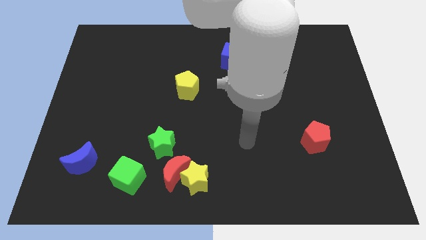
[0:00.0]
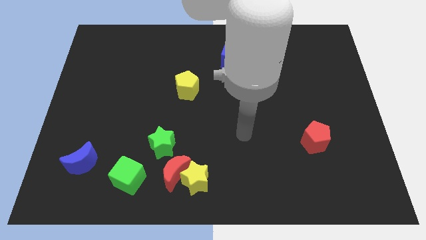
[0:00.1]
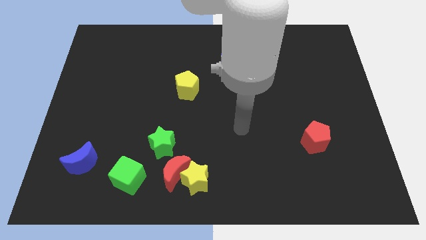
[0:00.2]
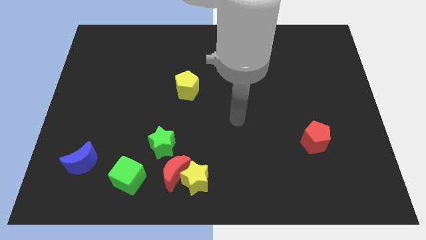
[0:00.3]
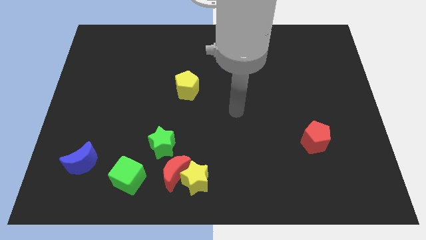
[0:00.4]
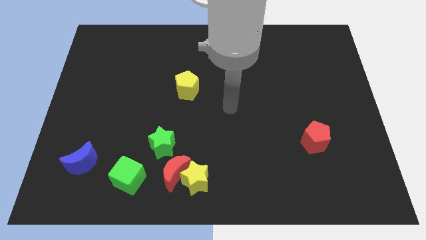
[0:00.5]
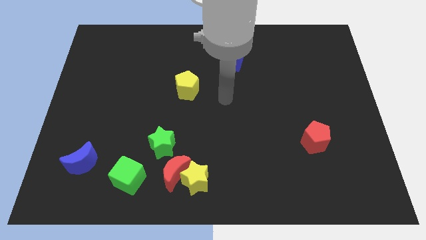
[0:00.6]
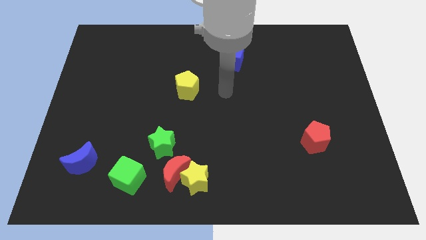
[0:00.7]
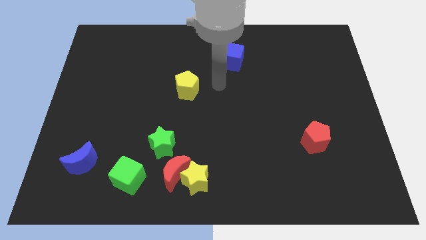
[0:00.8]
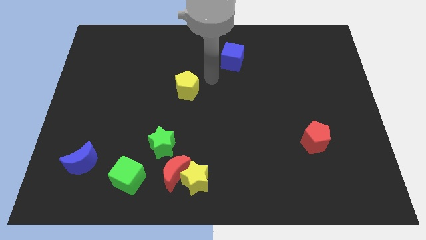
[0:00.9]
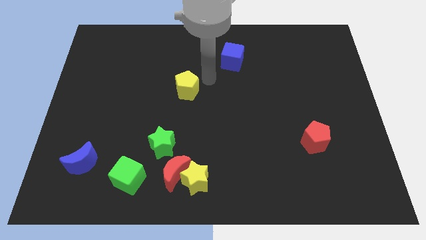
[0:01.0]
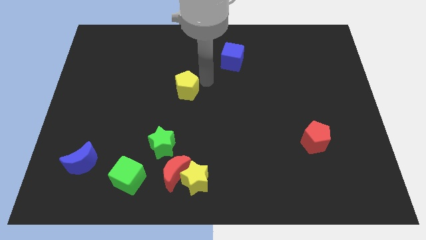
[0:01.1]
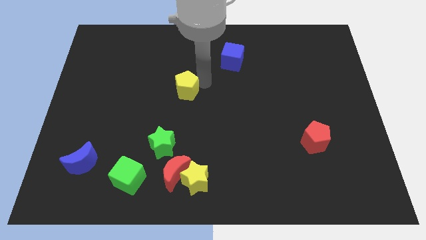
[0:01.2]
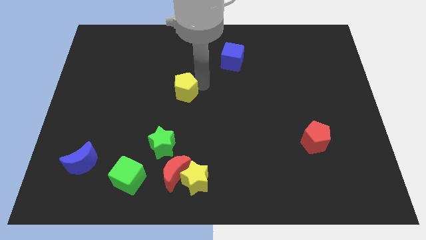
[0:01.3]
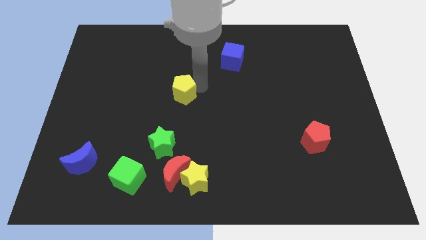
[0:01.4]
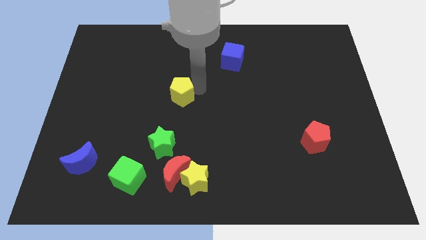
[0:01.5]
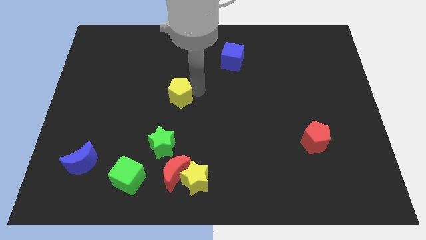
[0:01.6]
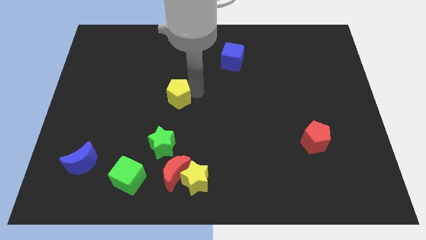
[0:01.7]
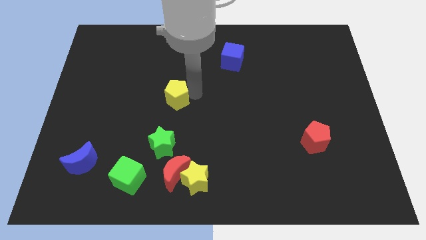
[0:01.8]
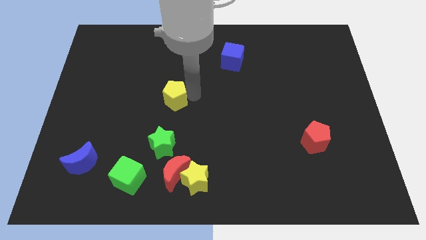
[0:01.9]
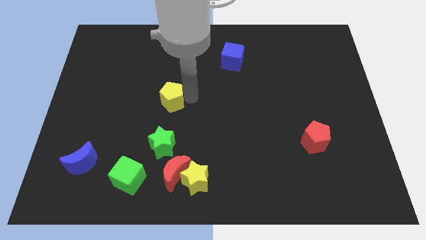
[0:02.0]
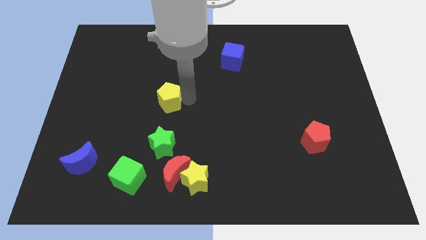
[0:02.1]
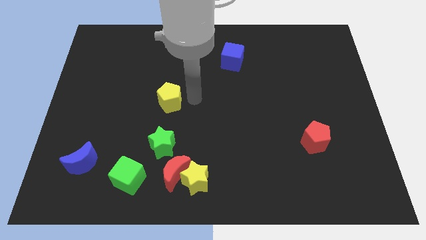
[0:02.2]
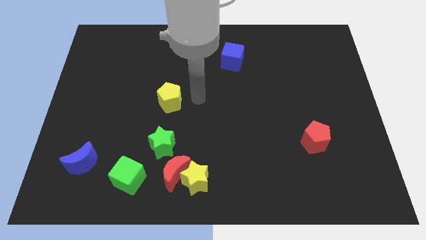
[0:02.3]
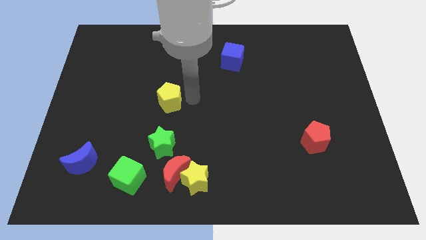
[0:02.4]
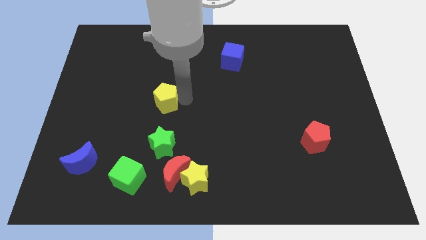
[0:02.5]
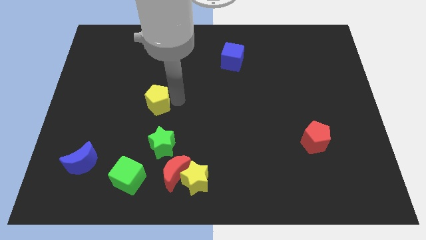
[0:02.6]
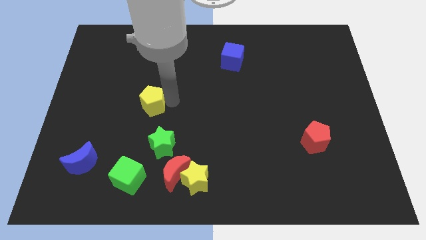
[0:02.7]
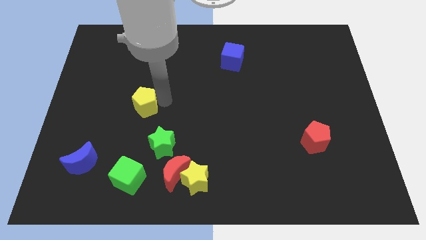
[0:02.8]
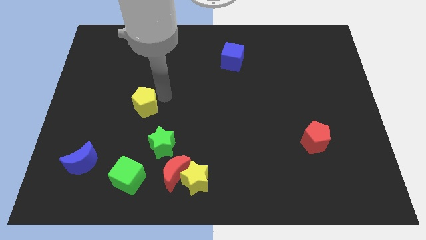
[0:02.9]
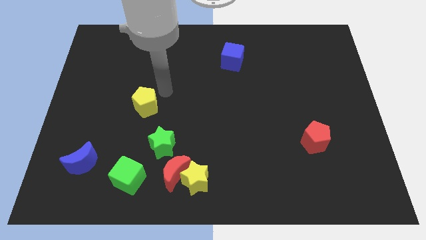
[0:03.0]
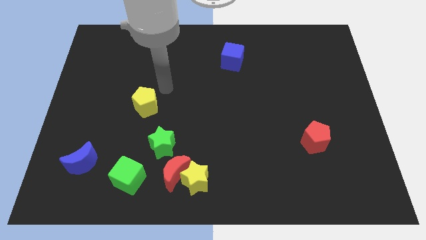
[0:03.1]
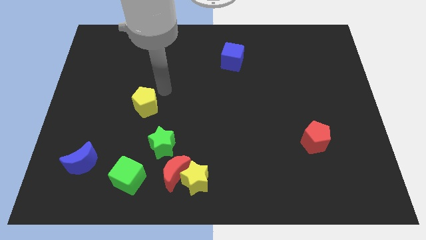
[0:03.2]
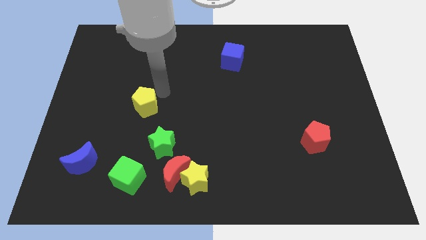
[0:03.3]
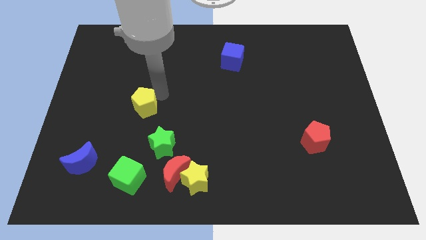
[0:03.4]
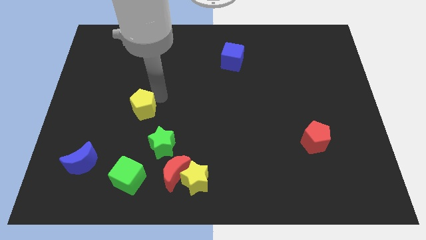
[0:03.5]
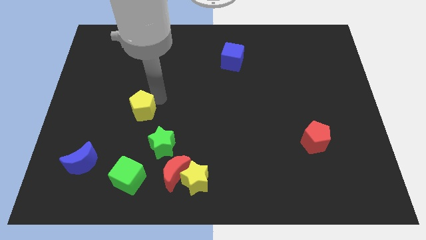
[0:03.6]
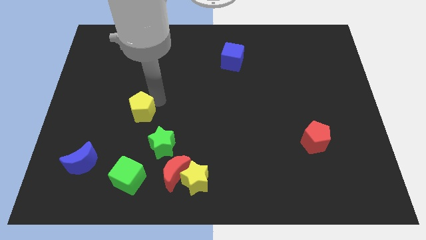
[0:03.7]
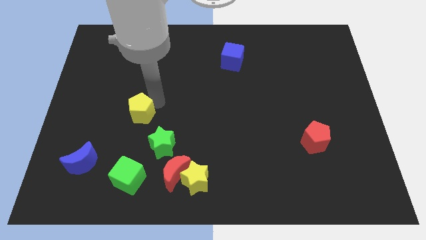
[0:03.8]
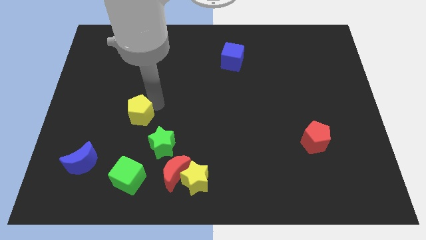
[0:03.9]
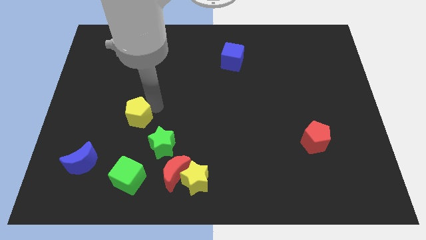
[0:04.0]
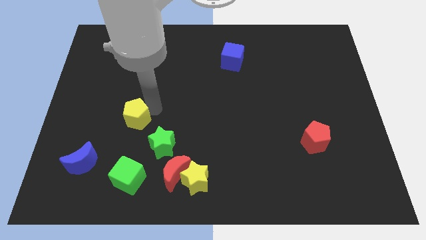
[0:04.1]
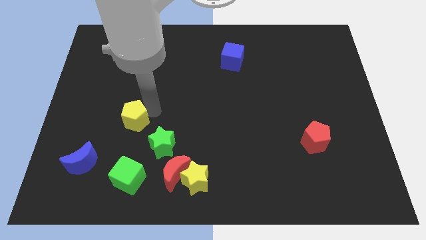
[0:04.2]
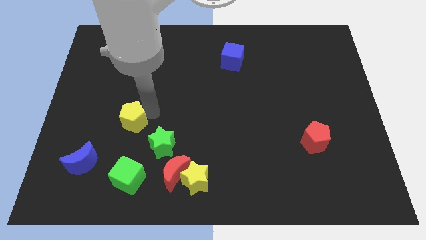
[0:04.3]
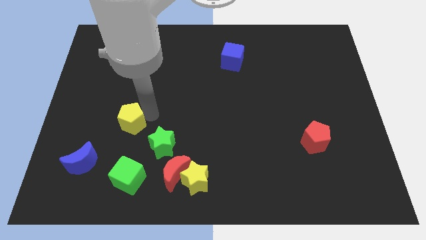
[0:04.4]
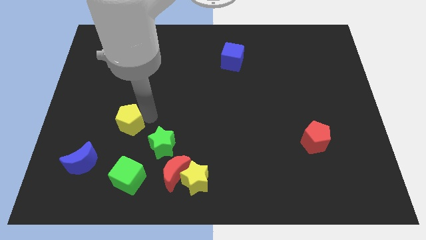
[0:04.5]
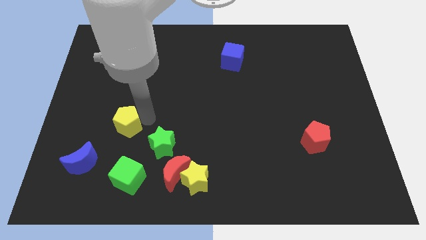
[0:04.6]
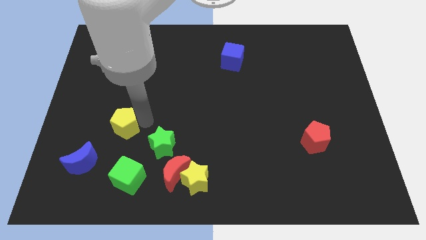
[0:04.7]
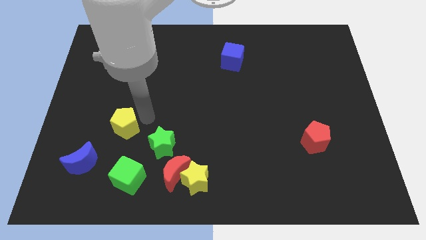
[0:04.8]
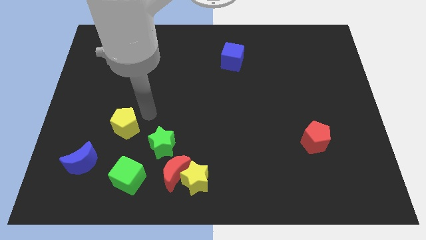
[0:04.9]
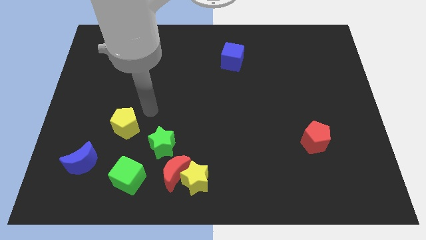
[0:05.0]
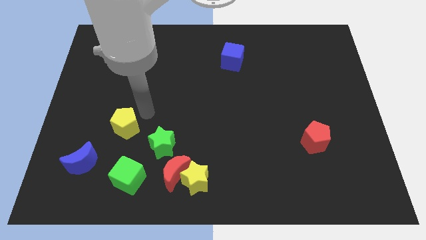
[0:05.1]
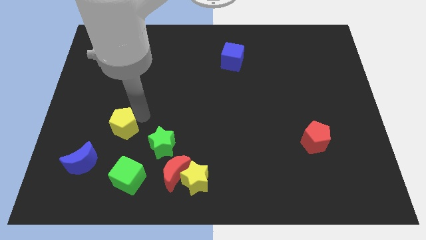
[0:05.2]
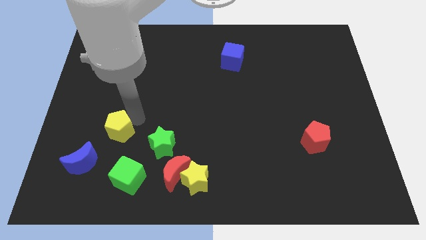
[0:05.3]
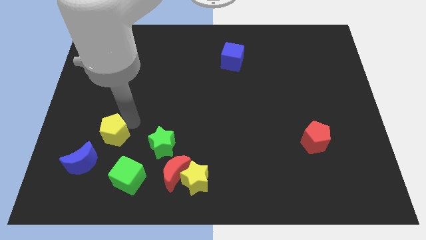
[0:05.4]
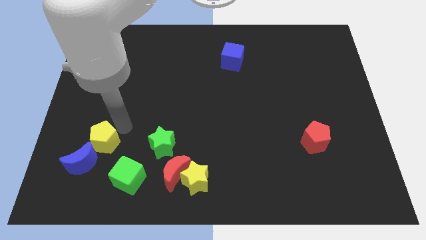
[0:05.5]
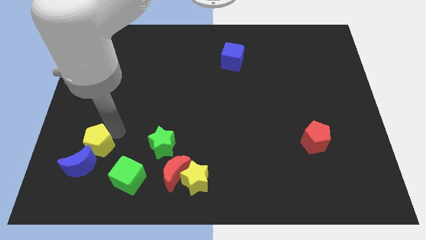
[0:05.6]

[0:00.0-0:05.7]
push the yellow pentagon close to the blue moon

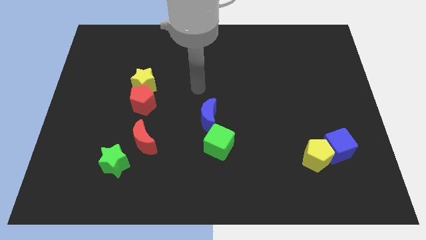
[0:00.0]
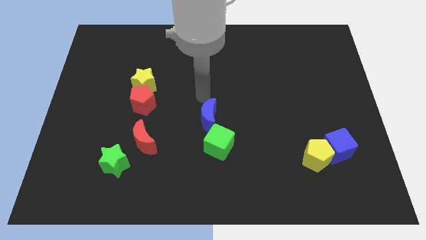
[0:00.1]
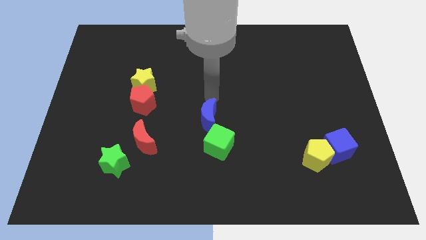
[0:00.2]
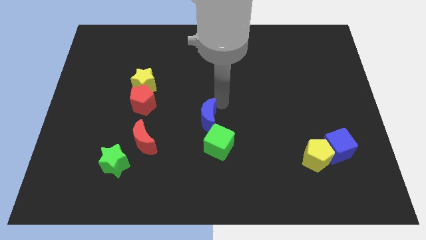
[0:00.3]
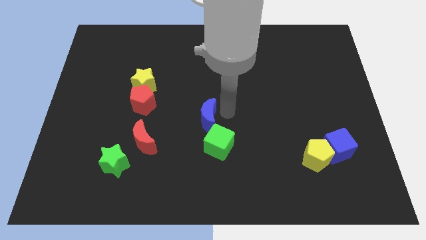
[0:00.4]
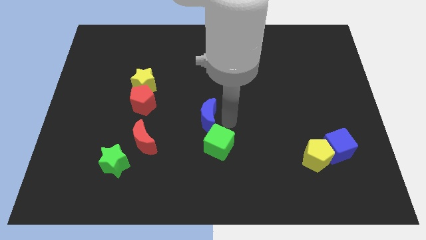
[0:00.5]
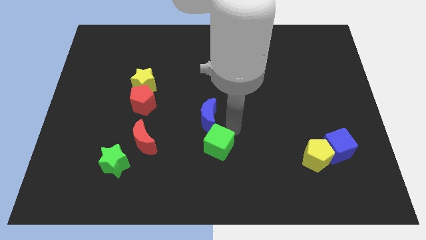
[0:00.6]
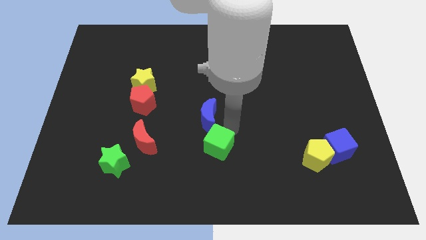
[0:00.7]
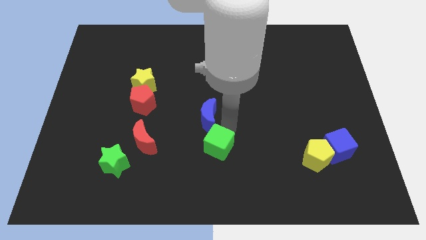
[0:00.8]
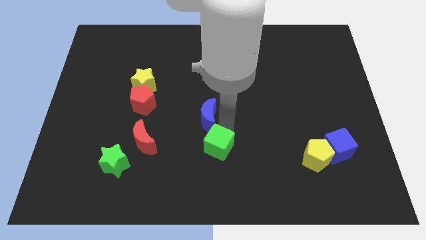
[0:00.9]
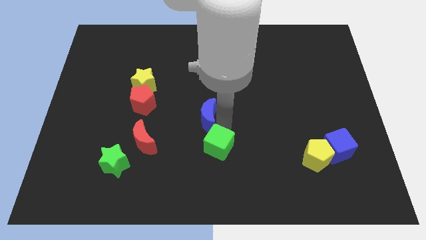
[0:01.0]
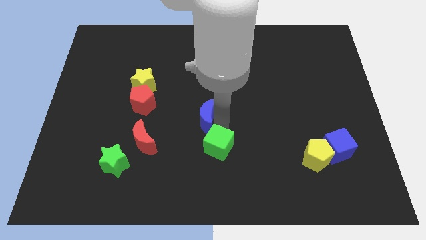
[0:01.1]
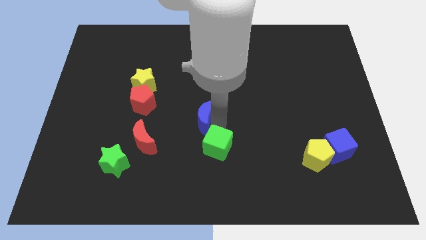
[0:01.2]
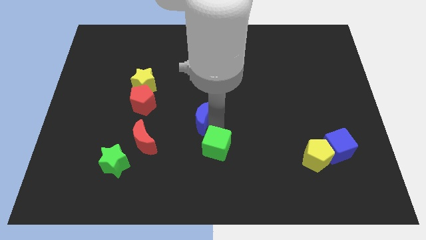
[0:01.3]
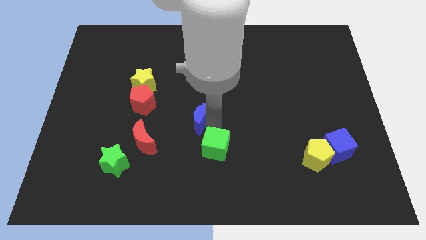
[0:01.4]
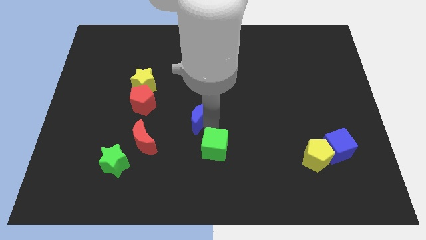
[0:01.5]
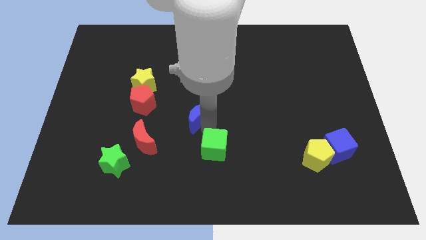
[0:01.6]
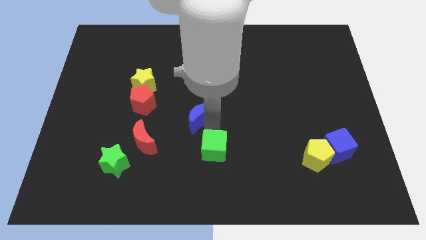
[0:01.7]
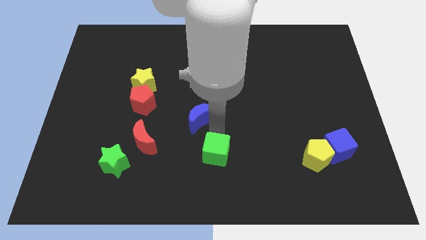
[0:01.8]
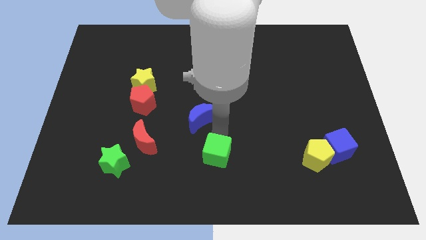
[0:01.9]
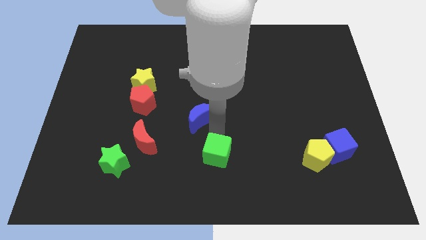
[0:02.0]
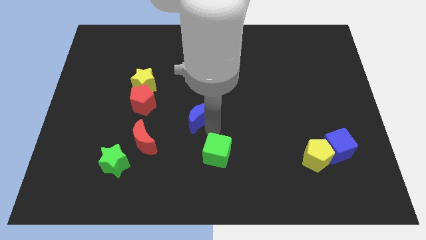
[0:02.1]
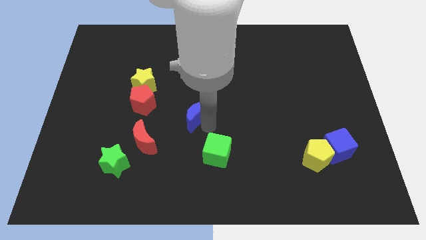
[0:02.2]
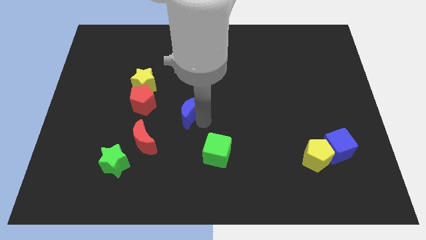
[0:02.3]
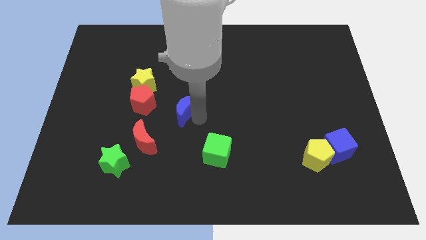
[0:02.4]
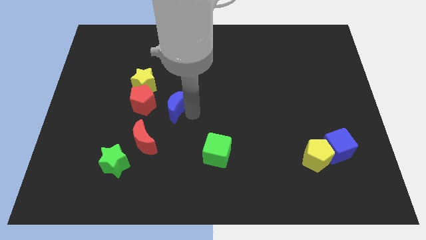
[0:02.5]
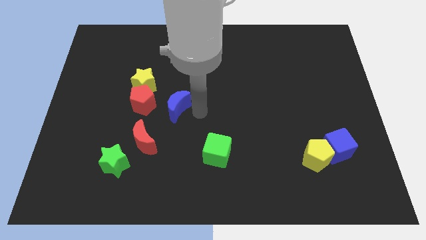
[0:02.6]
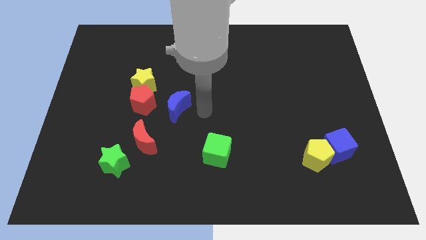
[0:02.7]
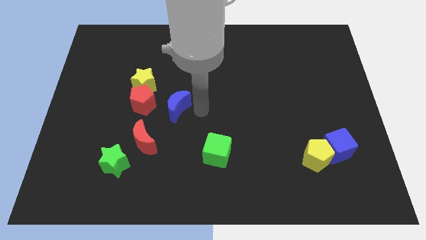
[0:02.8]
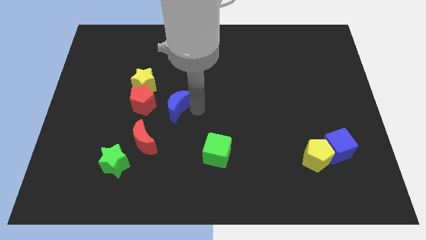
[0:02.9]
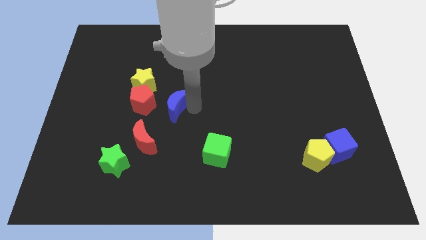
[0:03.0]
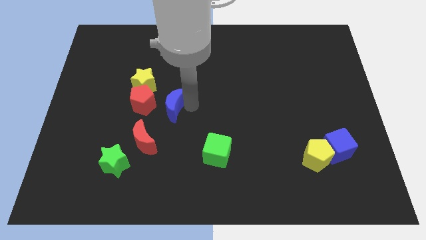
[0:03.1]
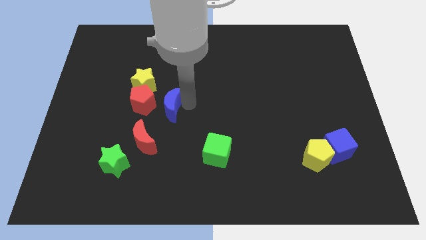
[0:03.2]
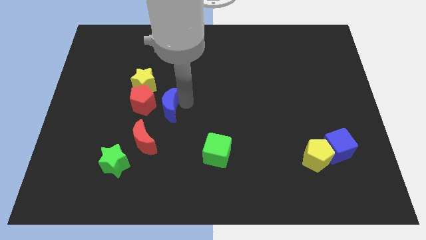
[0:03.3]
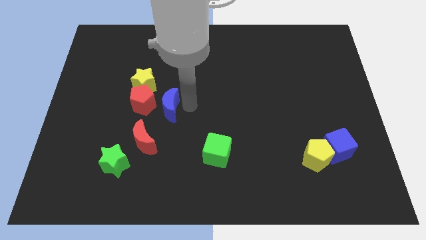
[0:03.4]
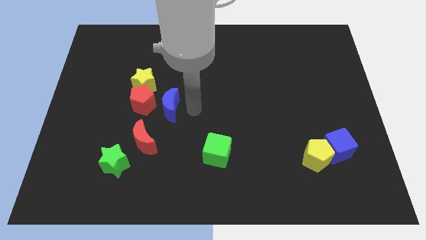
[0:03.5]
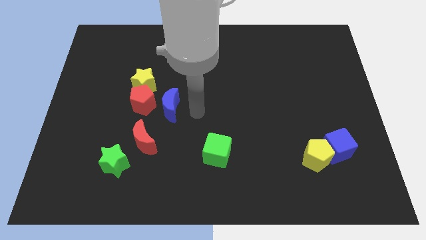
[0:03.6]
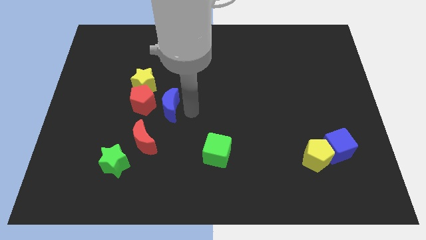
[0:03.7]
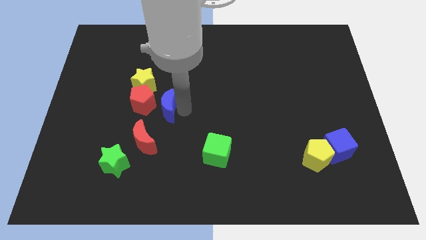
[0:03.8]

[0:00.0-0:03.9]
push the blue moon next to the red pentagon
